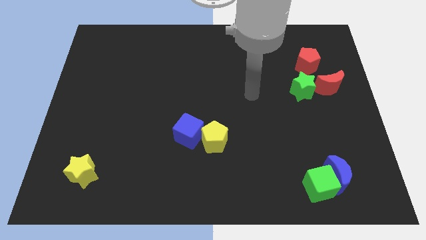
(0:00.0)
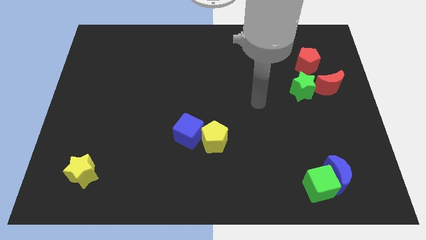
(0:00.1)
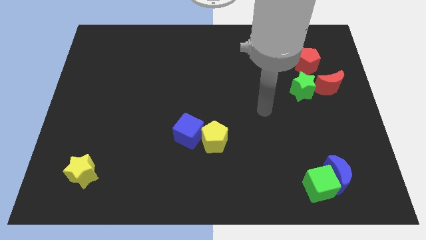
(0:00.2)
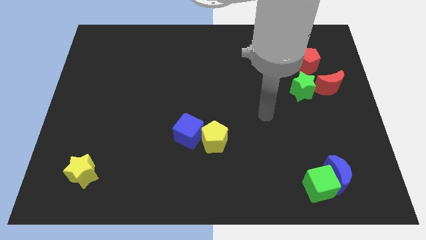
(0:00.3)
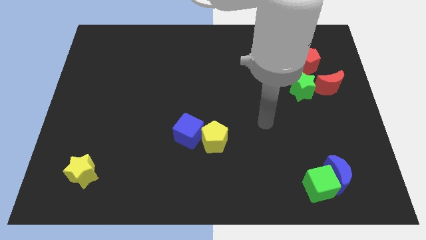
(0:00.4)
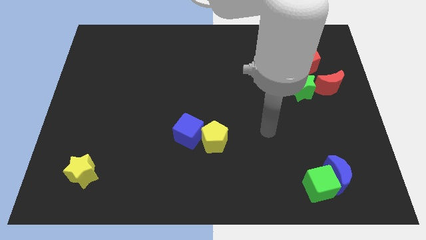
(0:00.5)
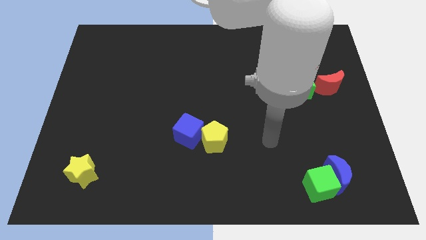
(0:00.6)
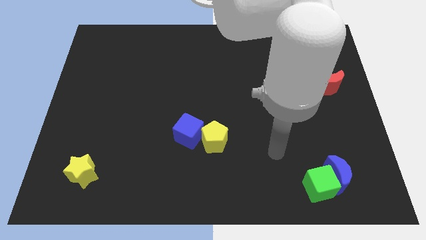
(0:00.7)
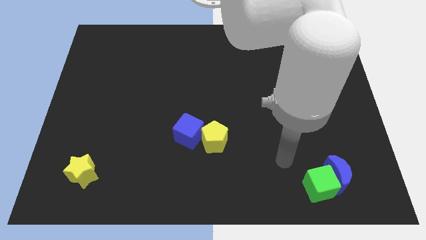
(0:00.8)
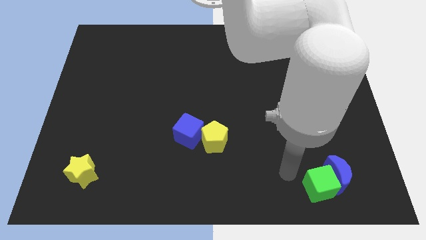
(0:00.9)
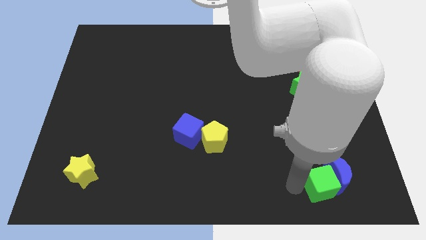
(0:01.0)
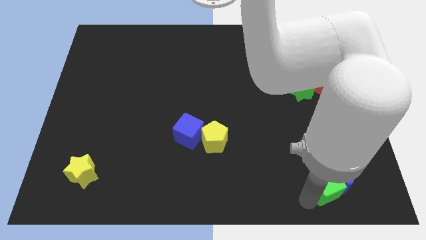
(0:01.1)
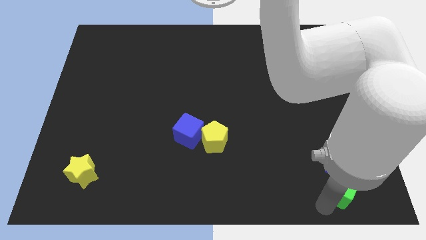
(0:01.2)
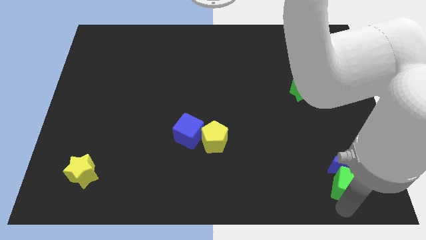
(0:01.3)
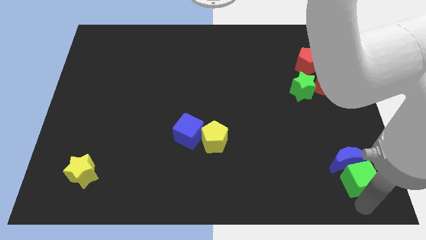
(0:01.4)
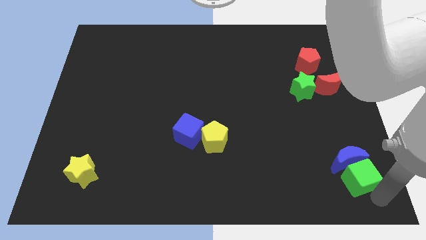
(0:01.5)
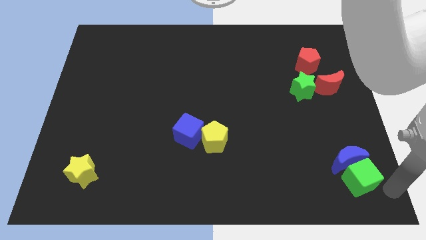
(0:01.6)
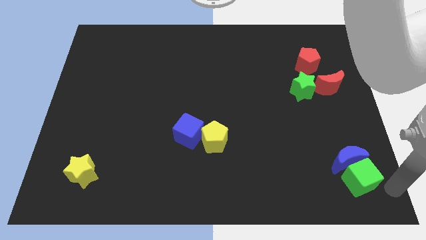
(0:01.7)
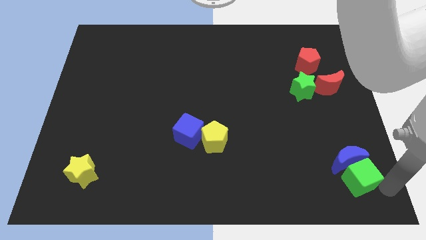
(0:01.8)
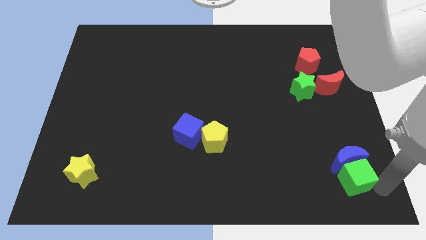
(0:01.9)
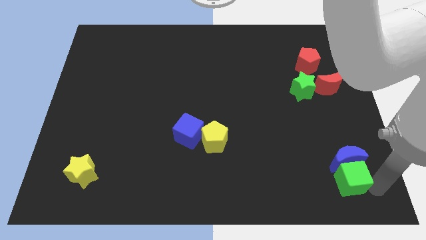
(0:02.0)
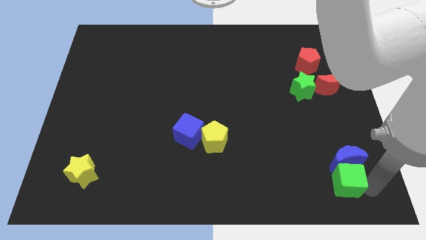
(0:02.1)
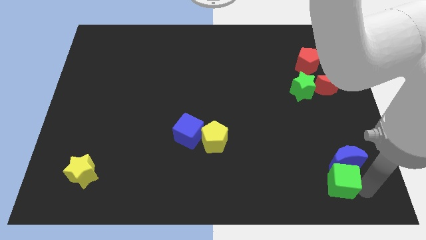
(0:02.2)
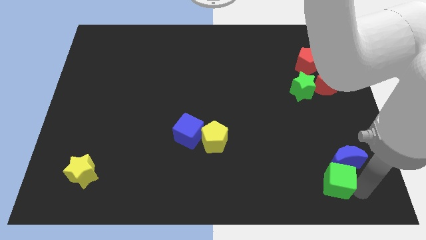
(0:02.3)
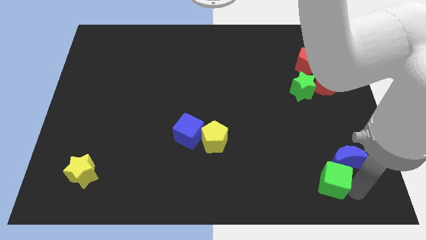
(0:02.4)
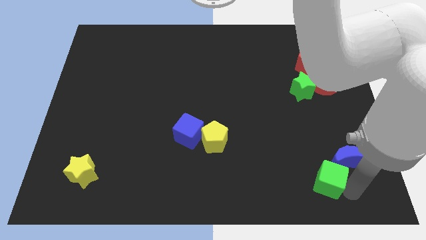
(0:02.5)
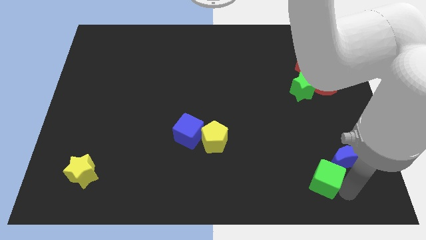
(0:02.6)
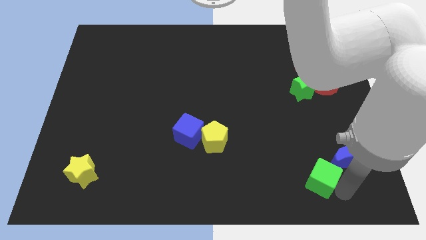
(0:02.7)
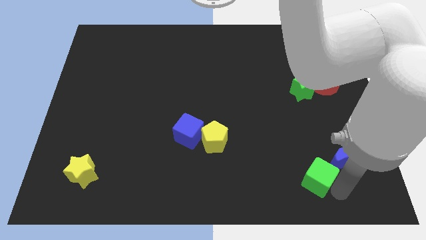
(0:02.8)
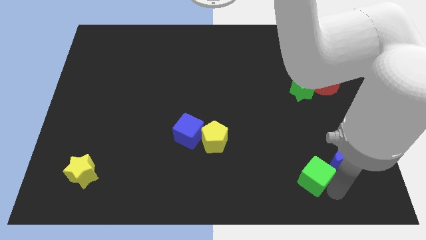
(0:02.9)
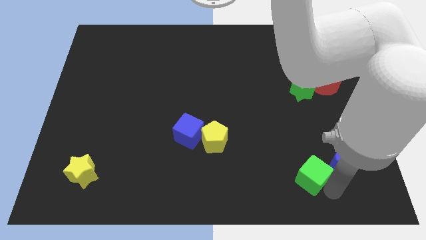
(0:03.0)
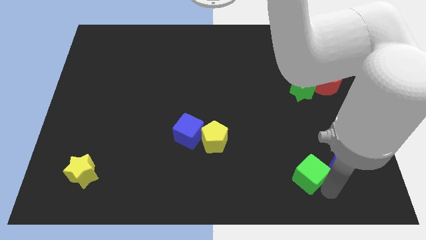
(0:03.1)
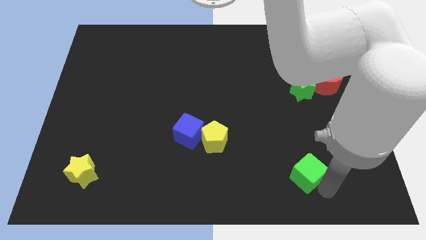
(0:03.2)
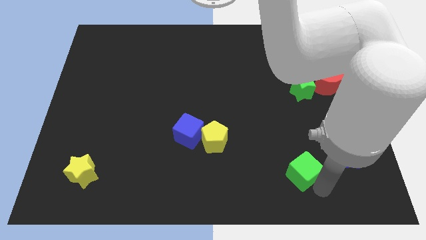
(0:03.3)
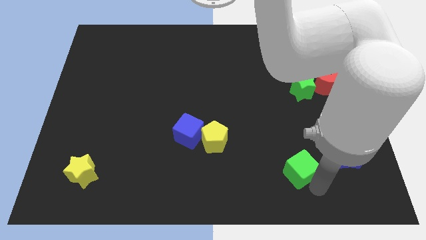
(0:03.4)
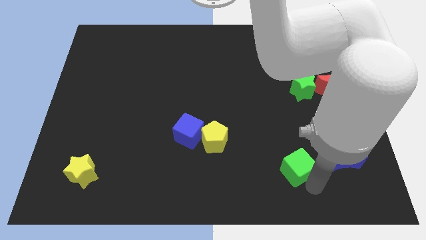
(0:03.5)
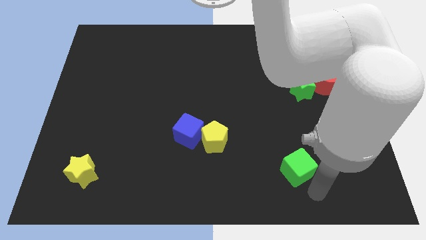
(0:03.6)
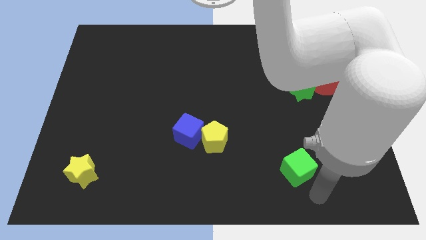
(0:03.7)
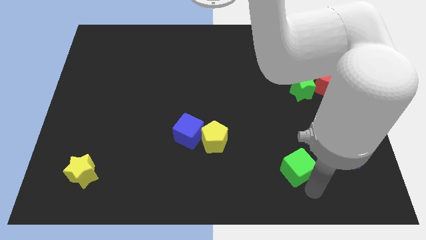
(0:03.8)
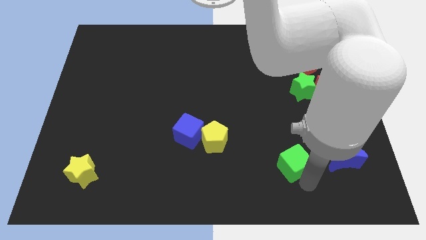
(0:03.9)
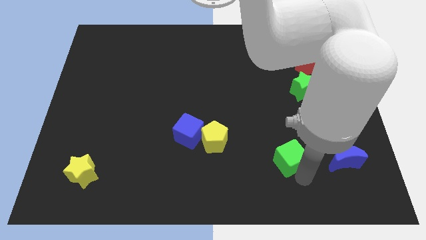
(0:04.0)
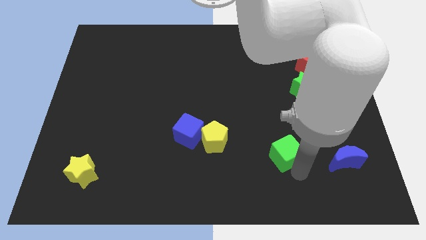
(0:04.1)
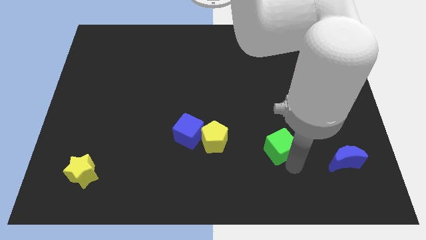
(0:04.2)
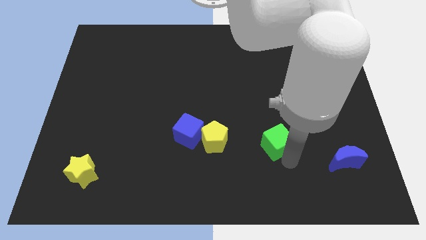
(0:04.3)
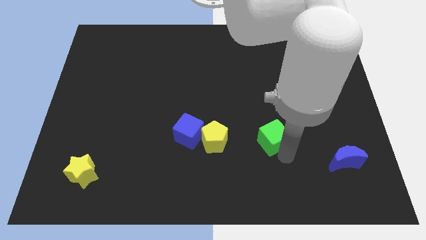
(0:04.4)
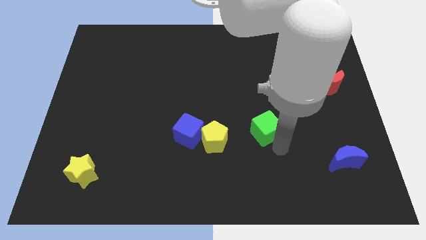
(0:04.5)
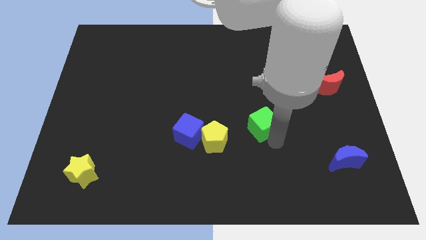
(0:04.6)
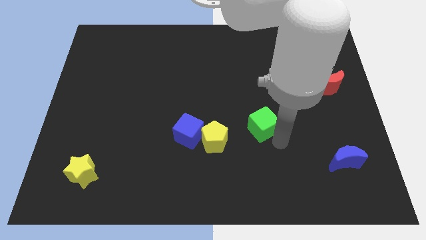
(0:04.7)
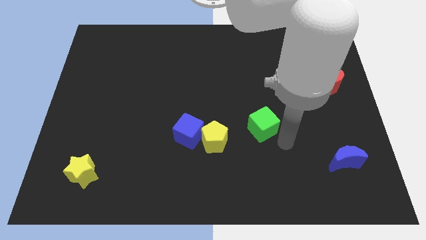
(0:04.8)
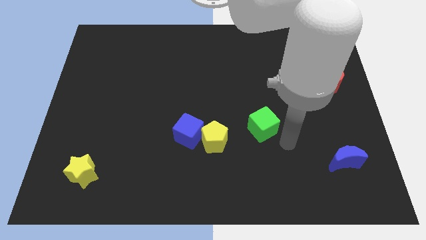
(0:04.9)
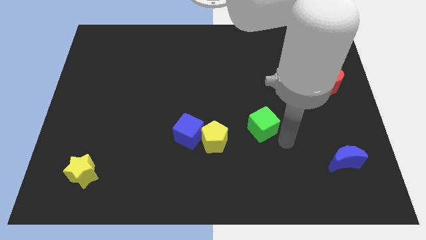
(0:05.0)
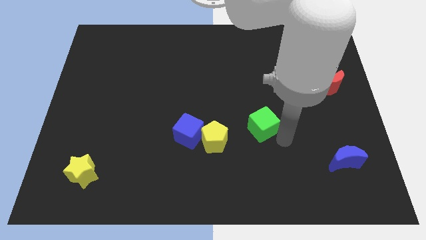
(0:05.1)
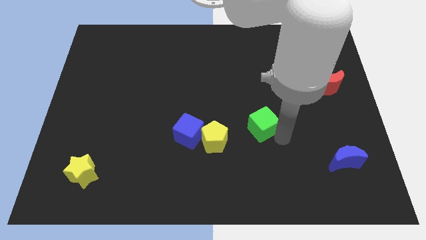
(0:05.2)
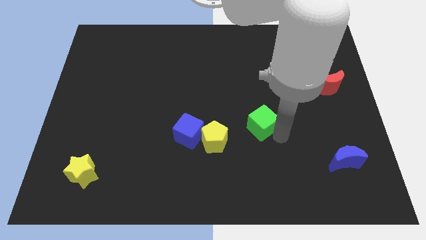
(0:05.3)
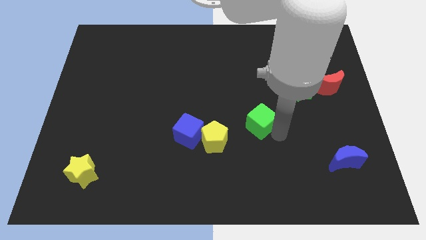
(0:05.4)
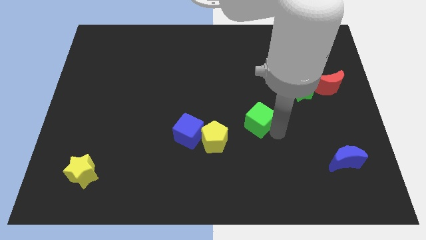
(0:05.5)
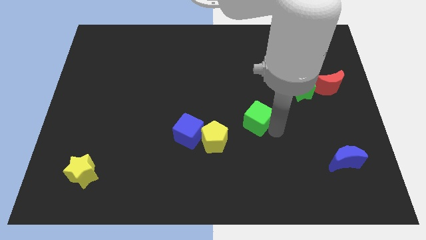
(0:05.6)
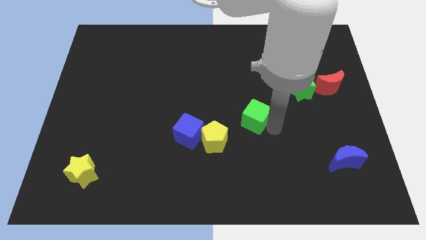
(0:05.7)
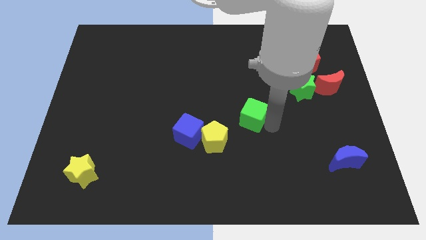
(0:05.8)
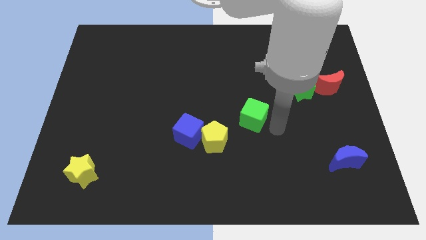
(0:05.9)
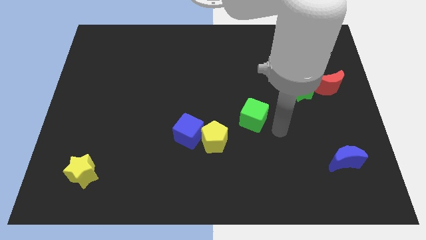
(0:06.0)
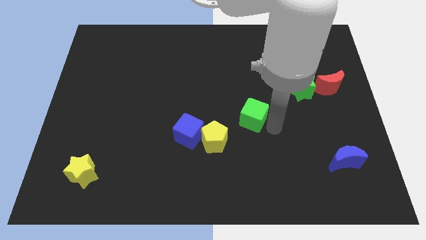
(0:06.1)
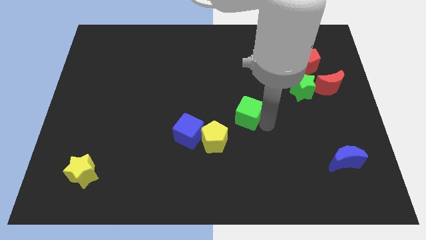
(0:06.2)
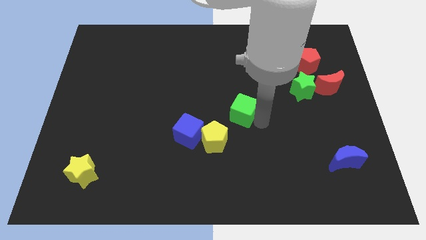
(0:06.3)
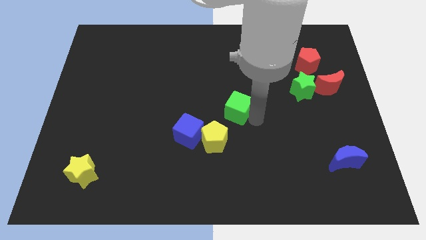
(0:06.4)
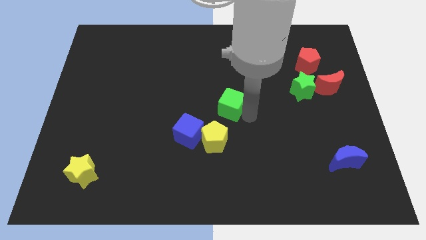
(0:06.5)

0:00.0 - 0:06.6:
push the green cube above the yellow pentagon

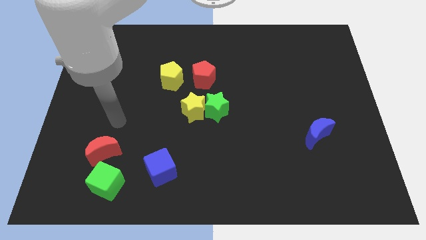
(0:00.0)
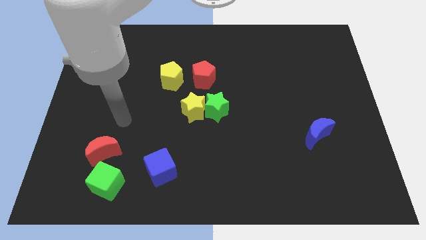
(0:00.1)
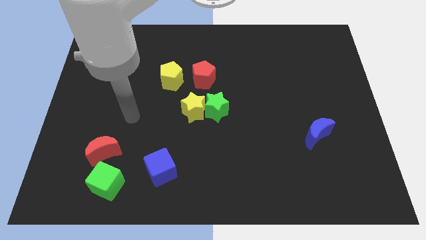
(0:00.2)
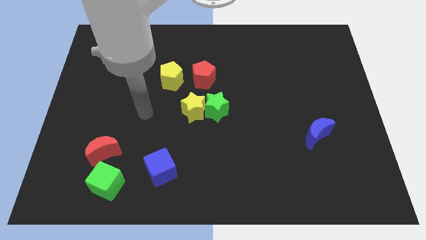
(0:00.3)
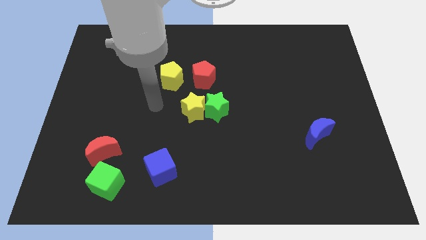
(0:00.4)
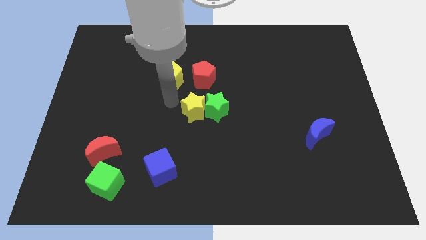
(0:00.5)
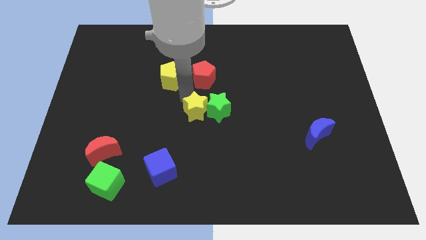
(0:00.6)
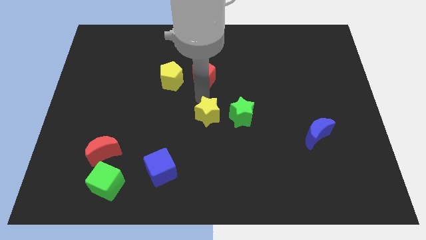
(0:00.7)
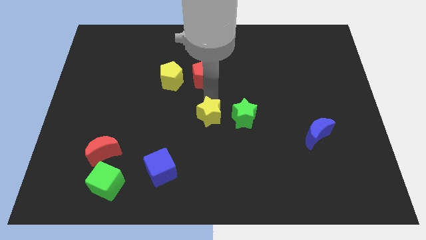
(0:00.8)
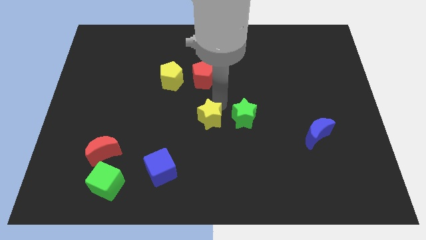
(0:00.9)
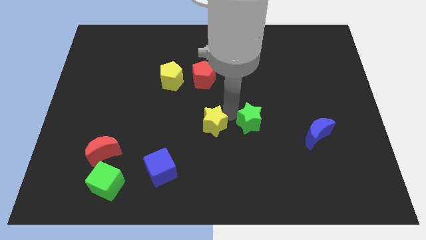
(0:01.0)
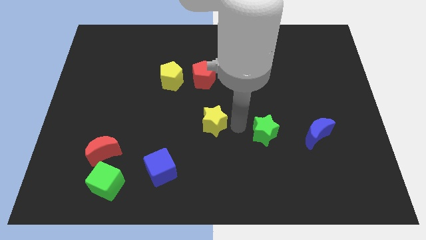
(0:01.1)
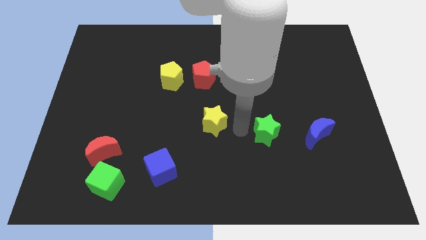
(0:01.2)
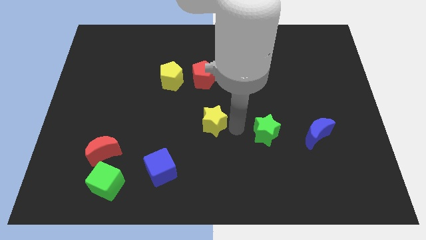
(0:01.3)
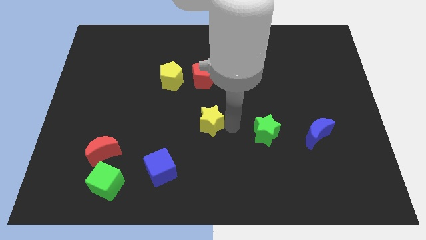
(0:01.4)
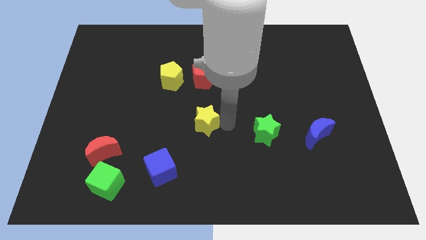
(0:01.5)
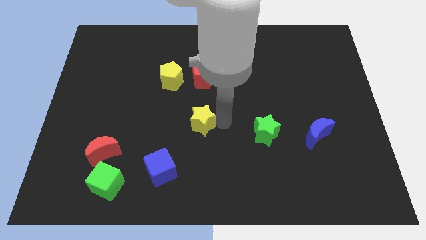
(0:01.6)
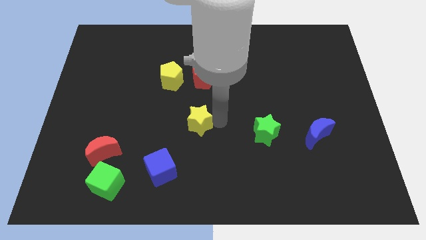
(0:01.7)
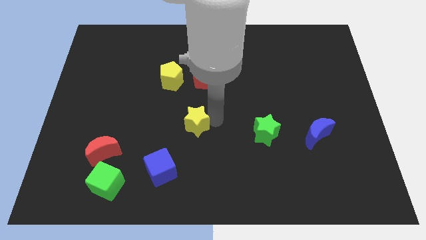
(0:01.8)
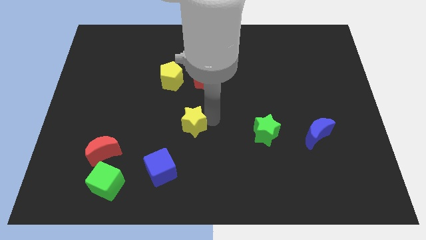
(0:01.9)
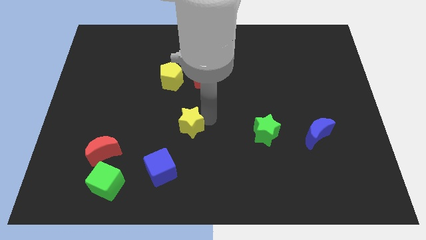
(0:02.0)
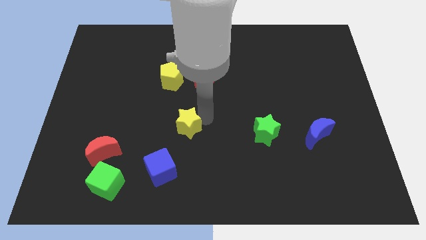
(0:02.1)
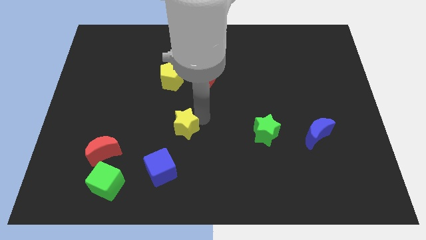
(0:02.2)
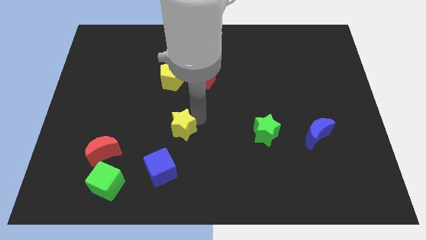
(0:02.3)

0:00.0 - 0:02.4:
push the yellow star to the bottom side of the yellow pentagon
